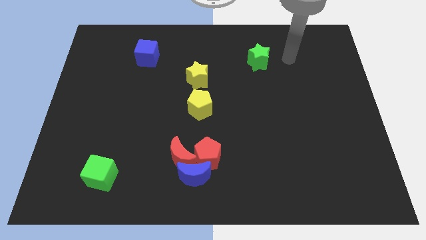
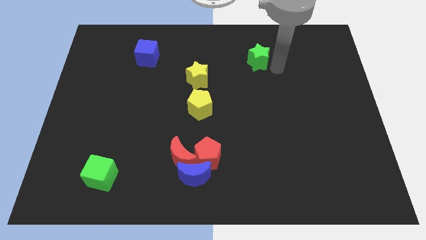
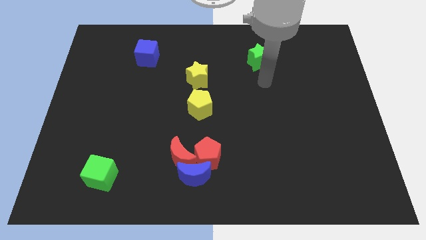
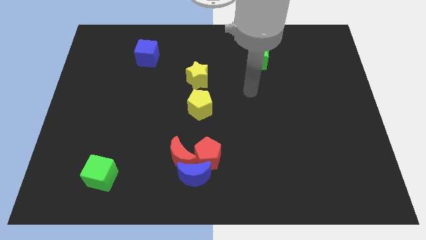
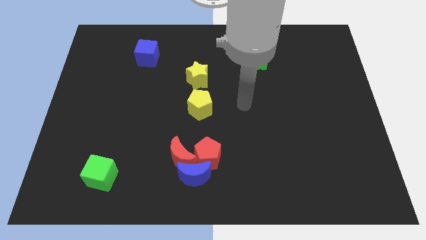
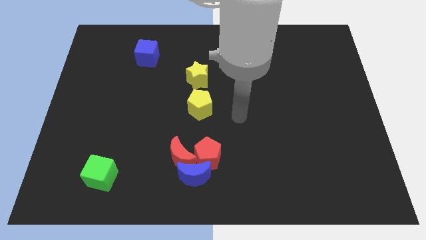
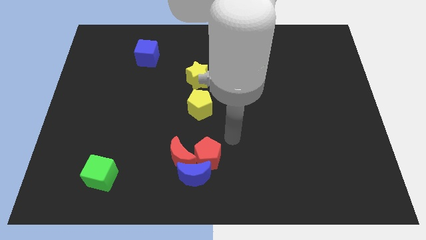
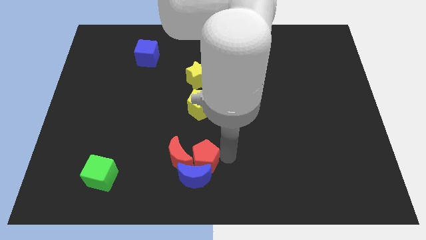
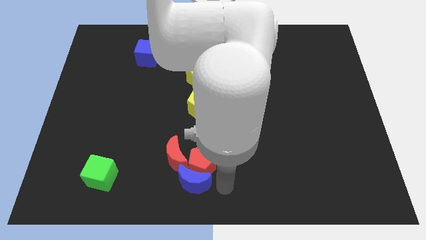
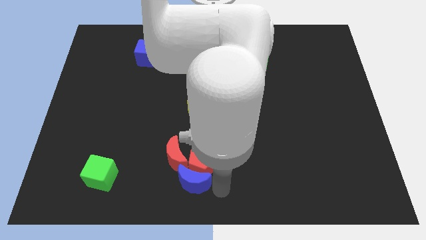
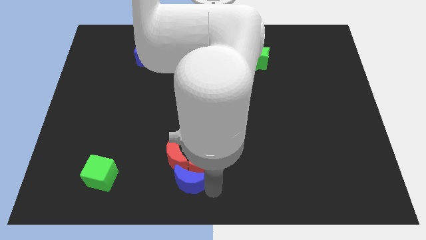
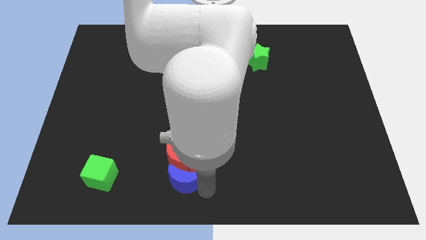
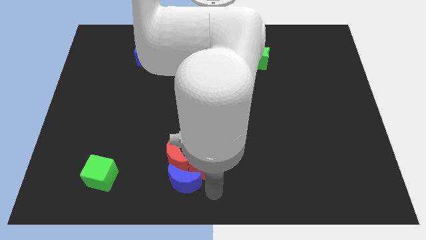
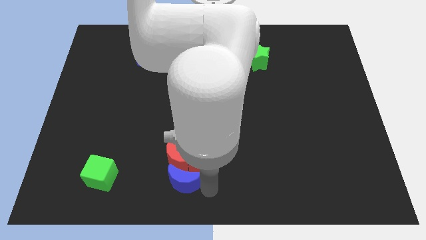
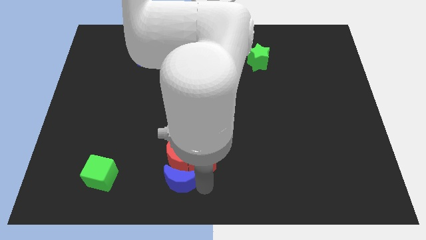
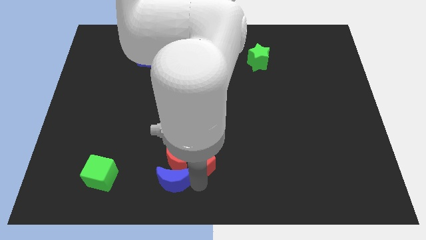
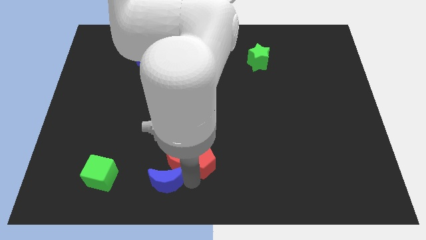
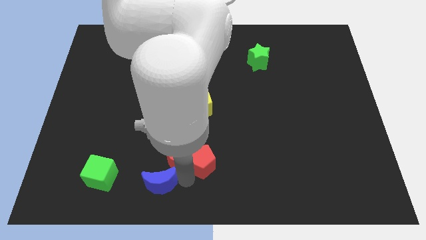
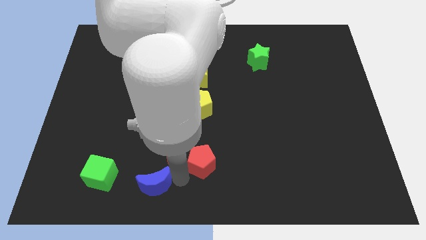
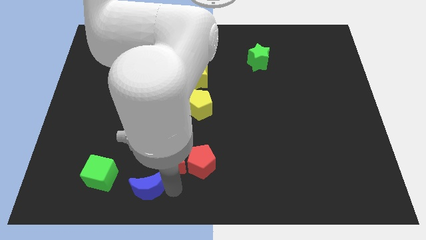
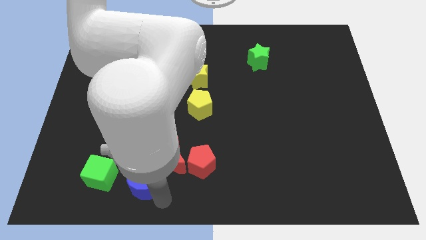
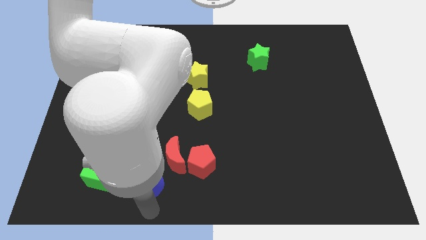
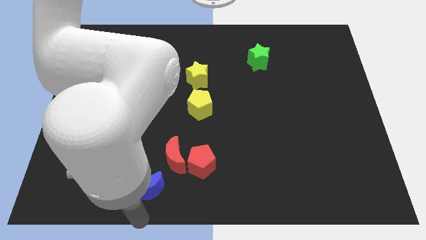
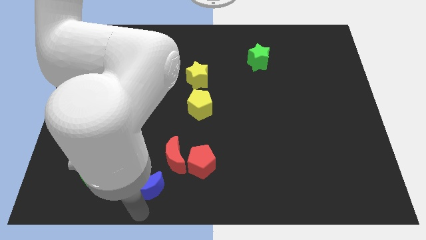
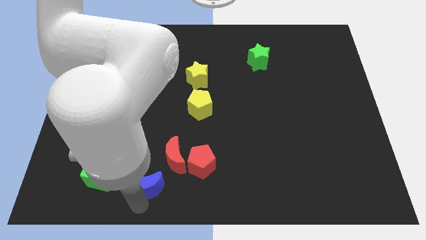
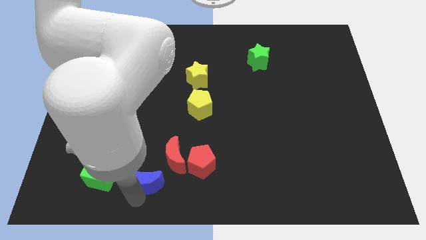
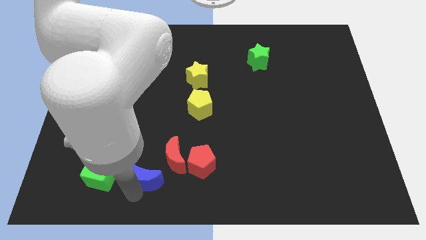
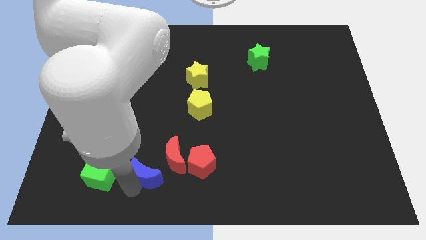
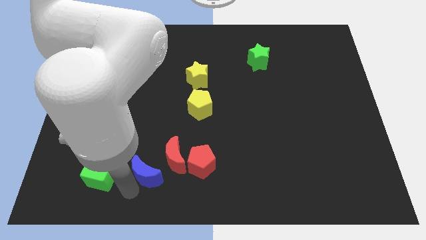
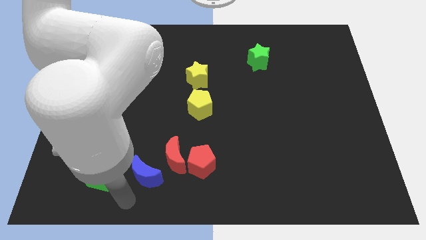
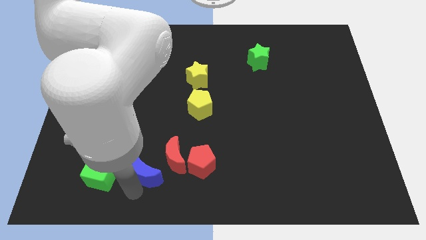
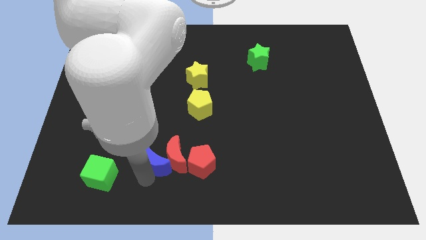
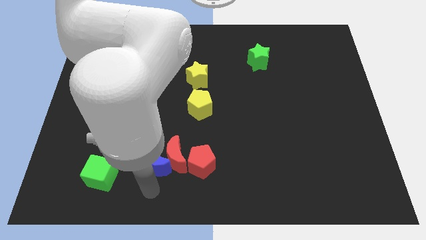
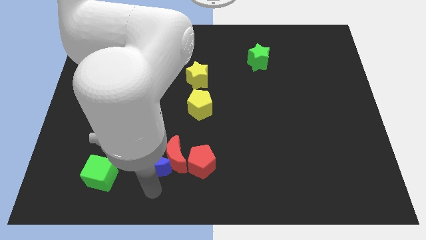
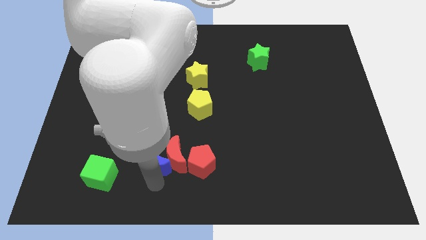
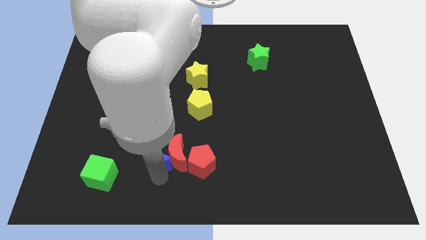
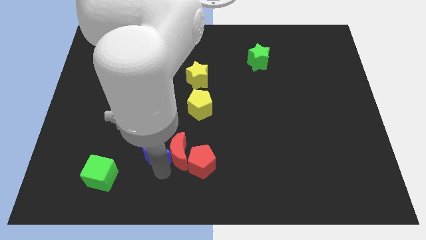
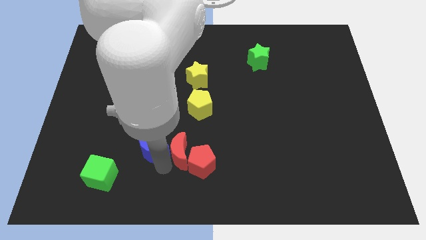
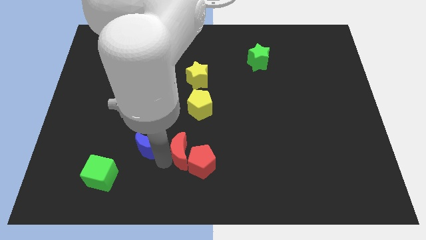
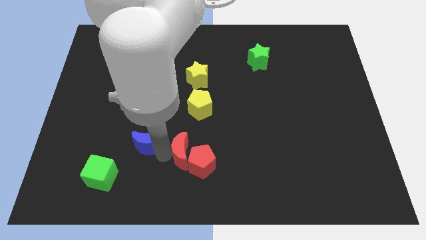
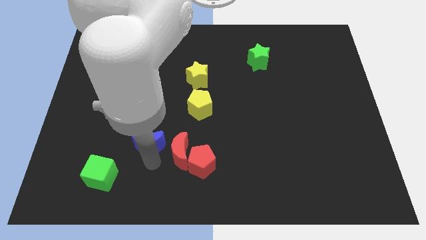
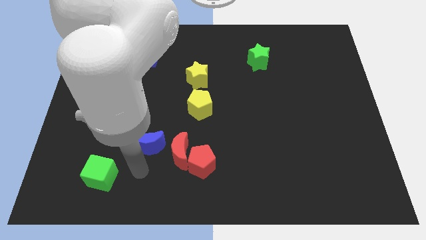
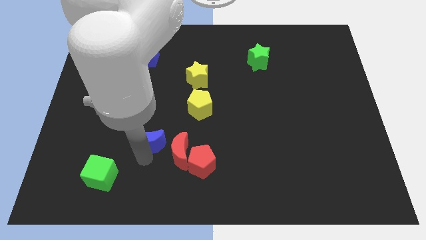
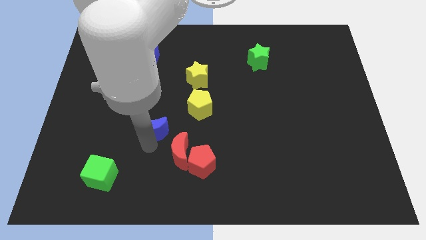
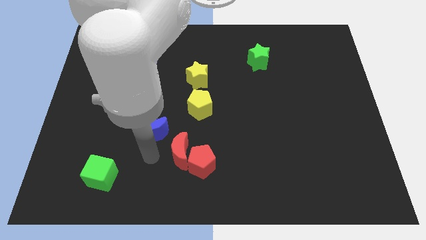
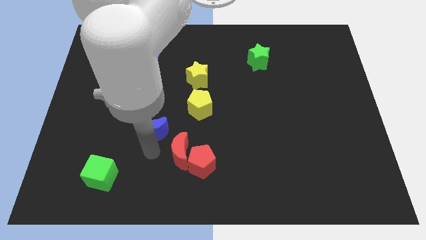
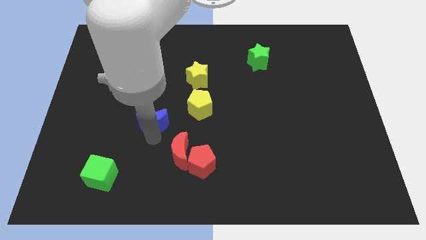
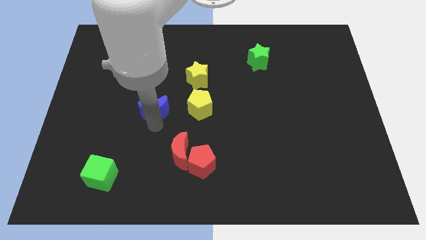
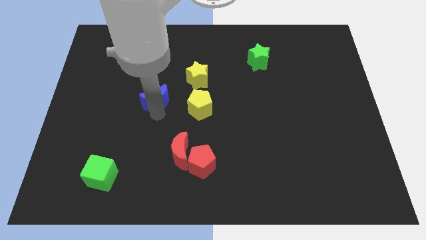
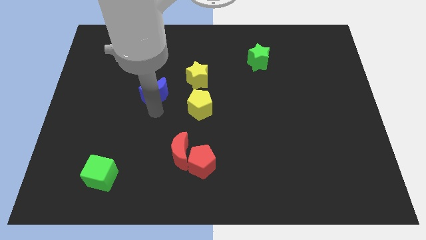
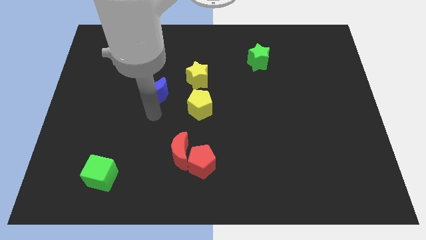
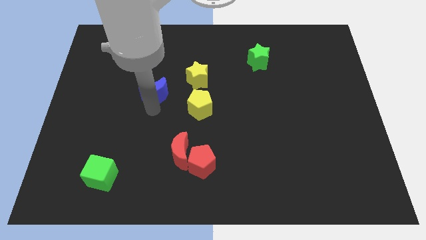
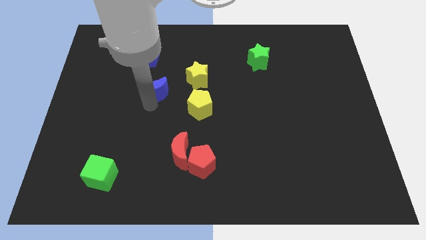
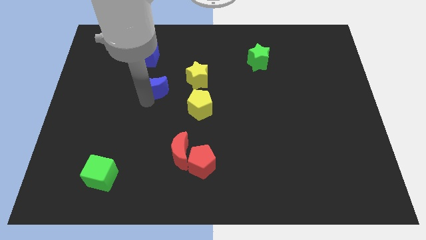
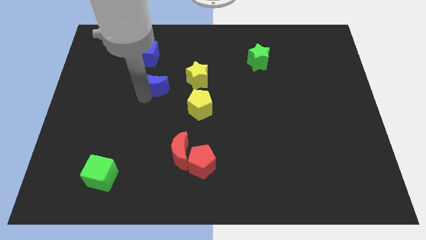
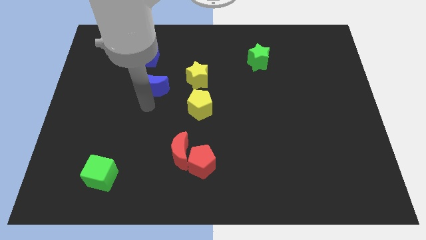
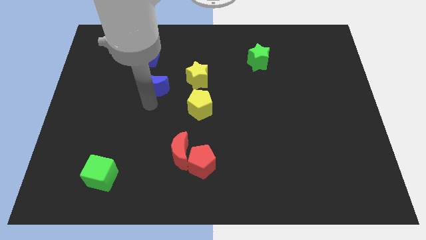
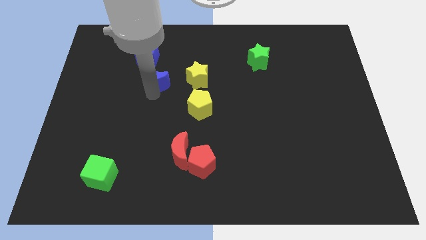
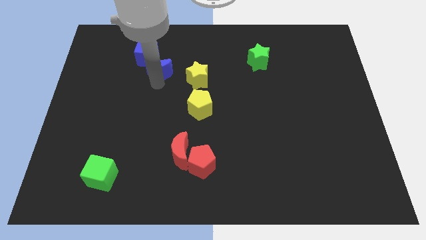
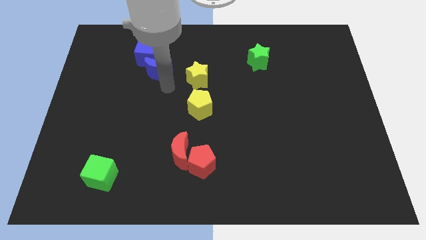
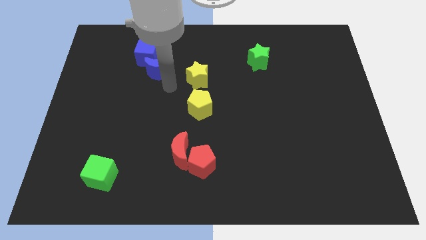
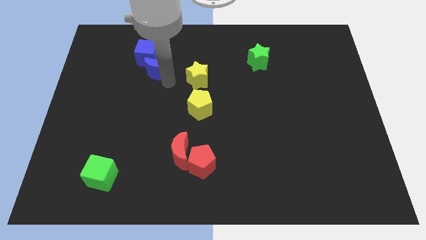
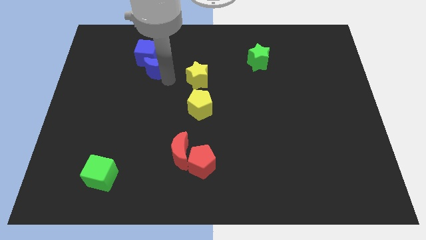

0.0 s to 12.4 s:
move the blue moon to the blue cube
